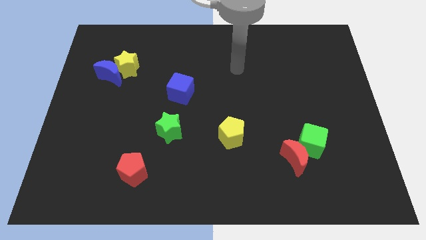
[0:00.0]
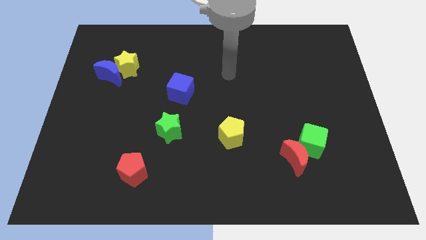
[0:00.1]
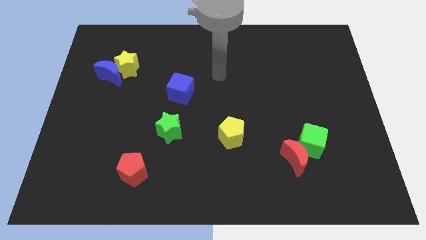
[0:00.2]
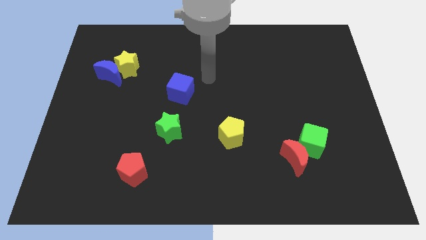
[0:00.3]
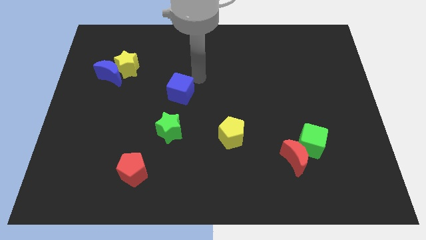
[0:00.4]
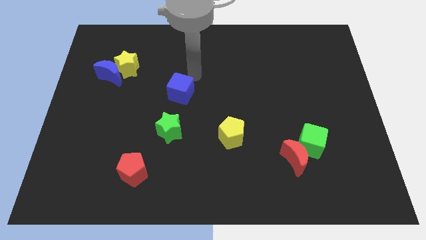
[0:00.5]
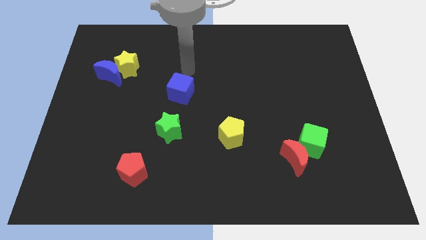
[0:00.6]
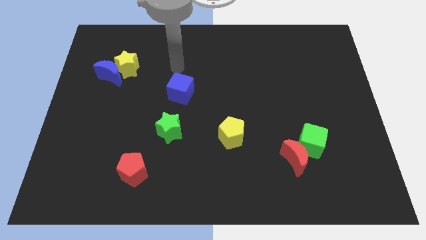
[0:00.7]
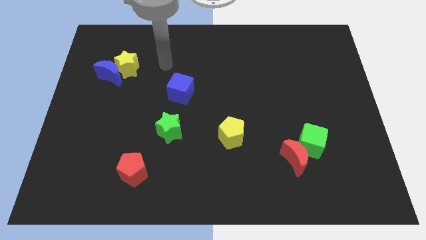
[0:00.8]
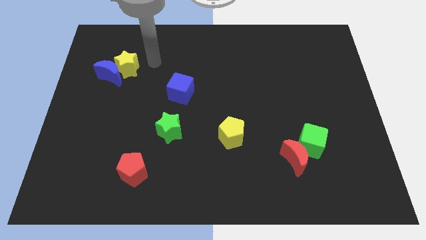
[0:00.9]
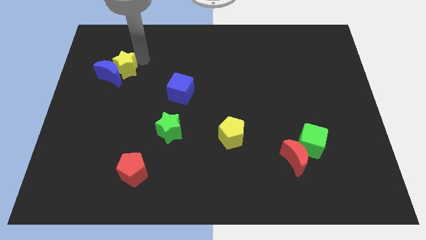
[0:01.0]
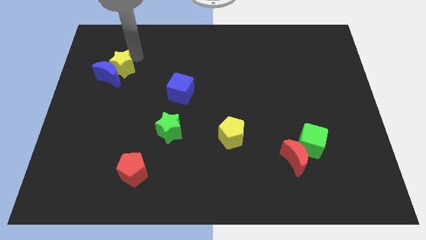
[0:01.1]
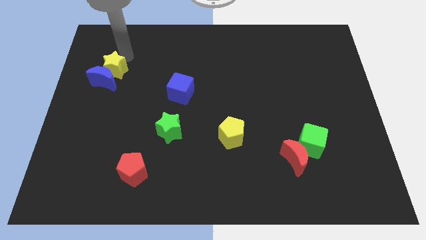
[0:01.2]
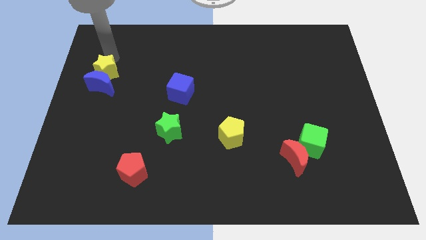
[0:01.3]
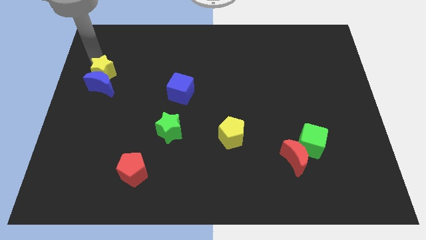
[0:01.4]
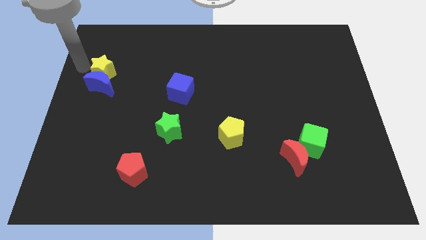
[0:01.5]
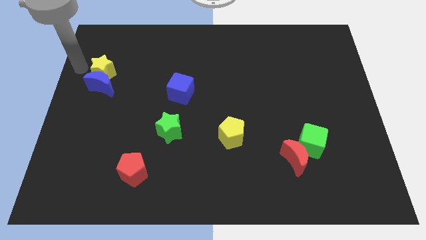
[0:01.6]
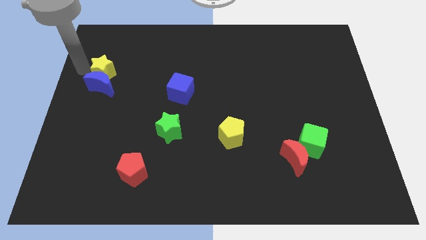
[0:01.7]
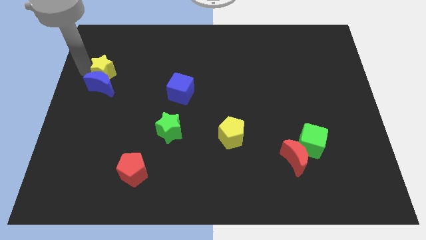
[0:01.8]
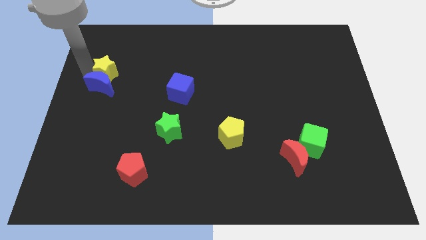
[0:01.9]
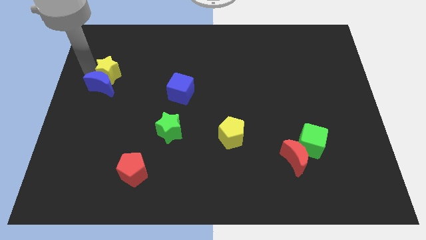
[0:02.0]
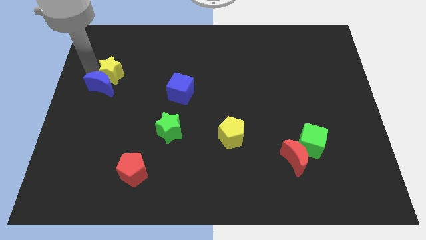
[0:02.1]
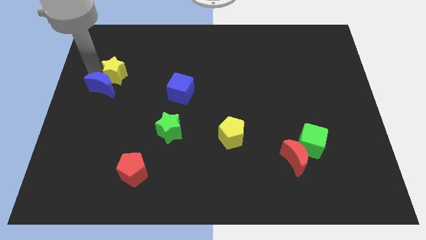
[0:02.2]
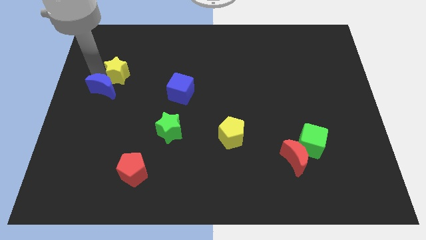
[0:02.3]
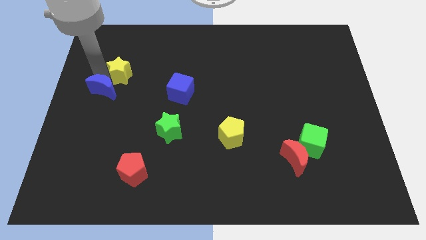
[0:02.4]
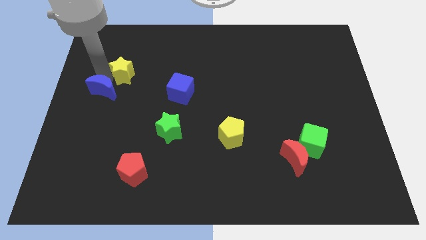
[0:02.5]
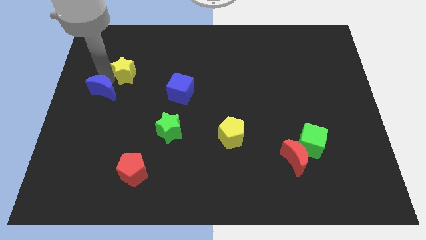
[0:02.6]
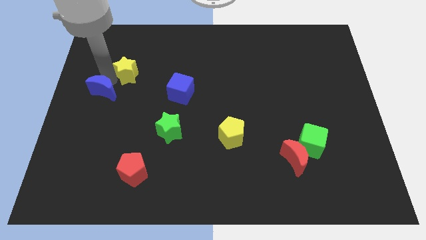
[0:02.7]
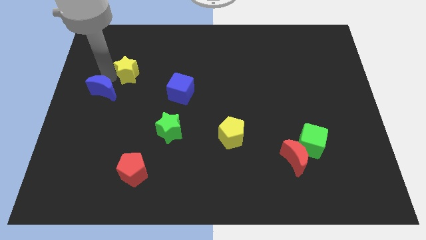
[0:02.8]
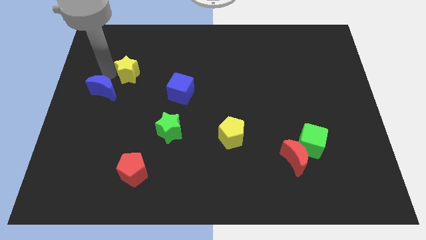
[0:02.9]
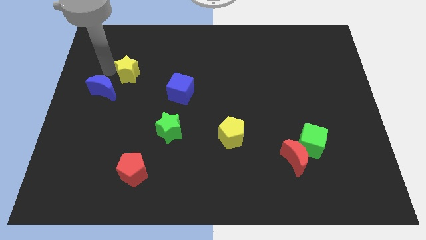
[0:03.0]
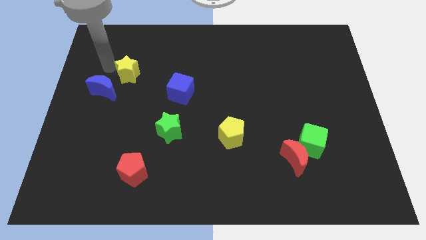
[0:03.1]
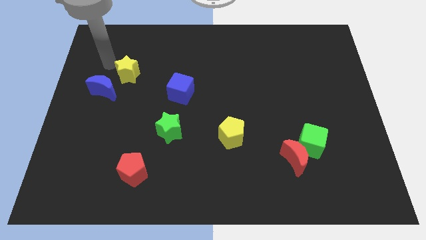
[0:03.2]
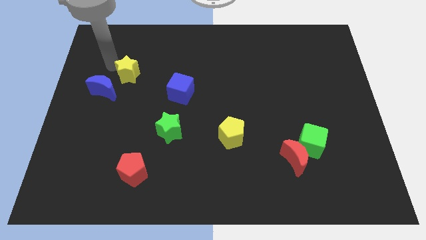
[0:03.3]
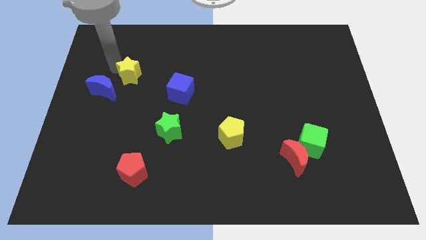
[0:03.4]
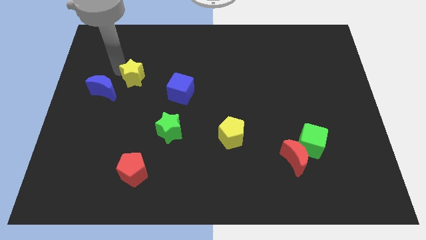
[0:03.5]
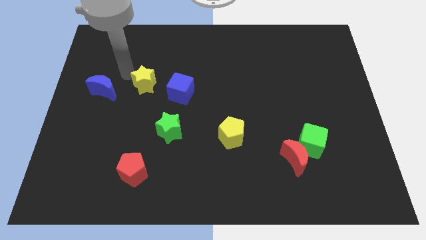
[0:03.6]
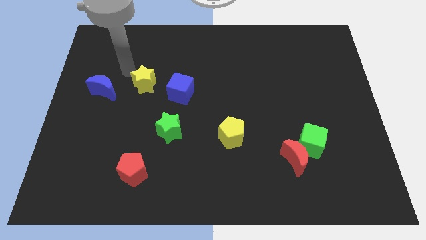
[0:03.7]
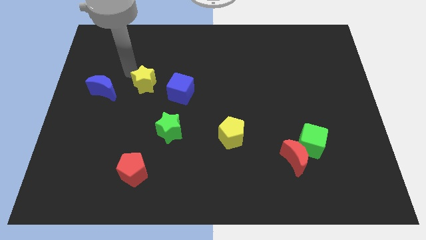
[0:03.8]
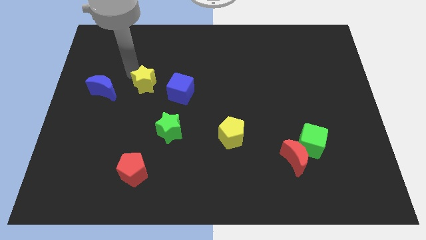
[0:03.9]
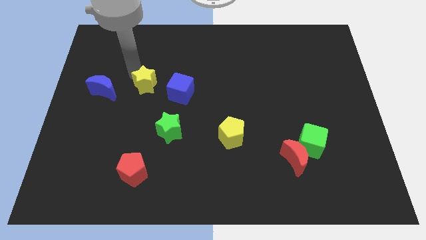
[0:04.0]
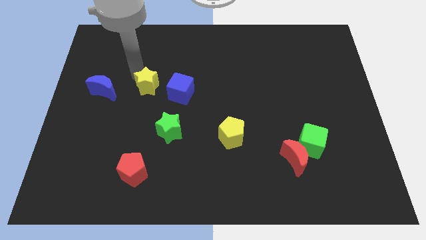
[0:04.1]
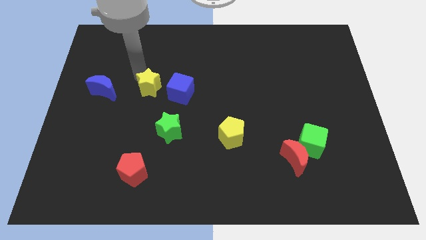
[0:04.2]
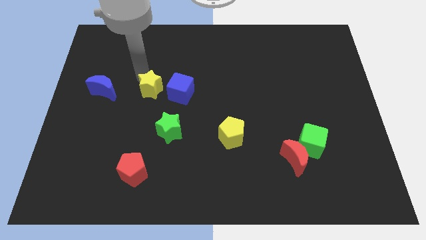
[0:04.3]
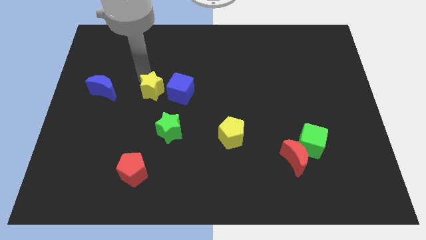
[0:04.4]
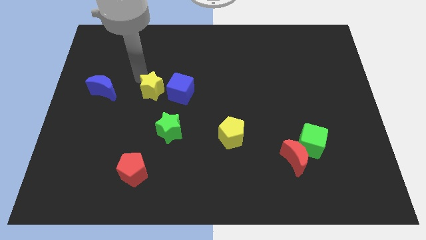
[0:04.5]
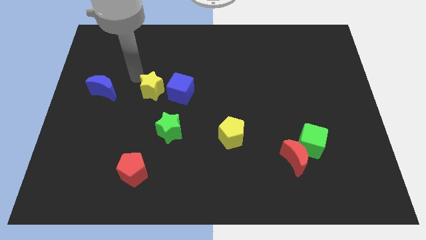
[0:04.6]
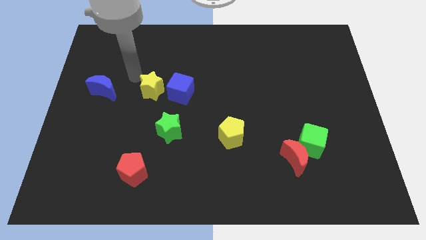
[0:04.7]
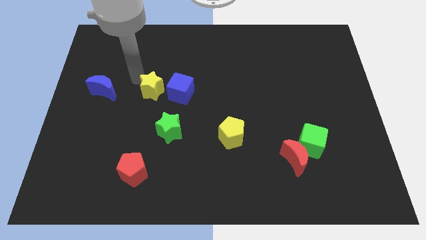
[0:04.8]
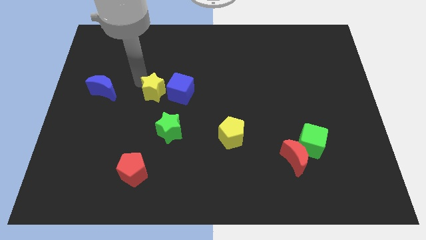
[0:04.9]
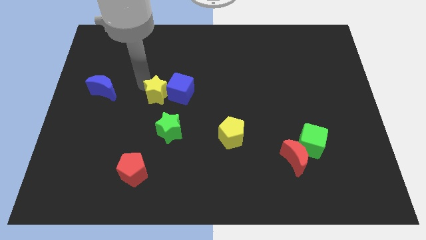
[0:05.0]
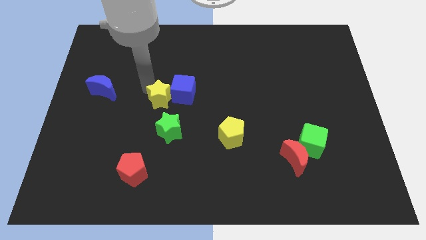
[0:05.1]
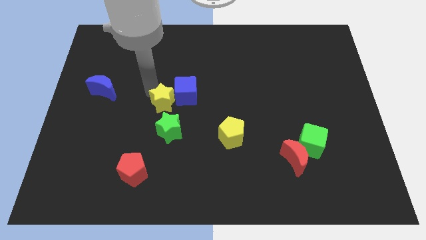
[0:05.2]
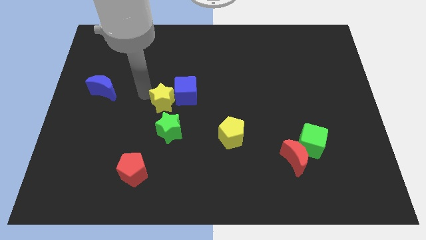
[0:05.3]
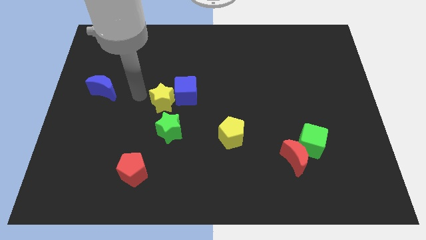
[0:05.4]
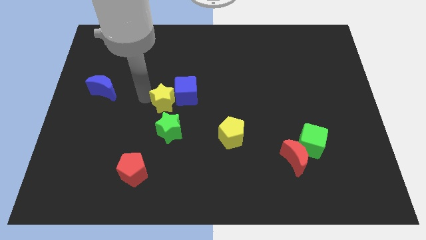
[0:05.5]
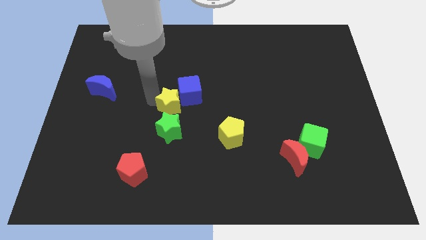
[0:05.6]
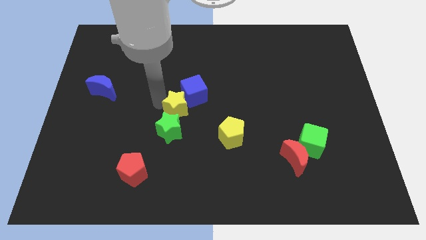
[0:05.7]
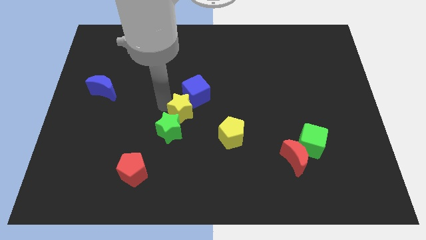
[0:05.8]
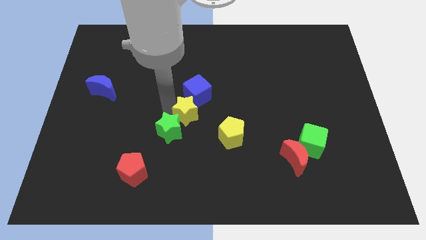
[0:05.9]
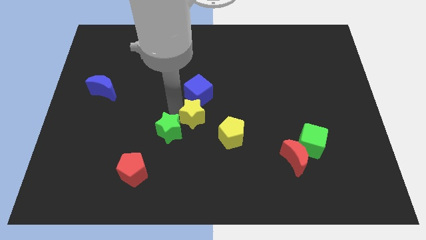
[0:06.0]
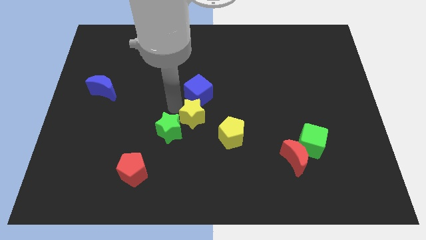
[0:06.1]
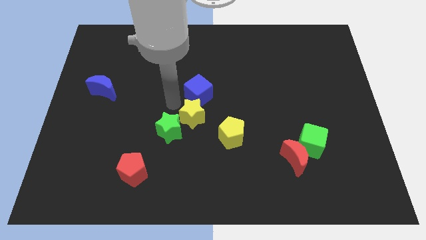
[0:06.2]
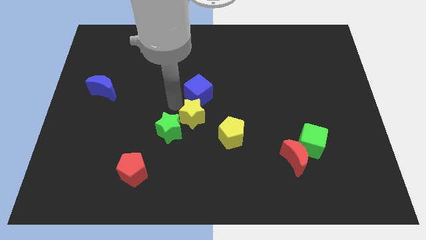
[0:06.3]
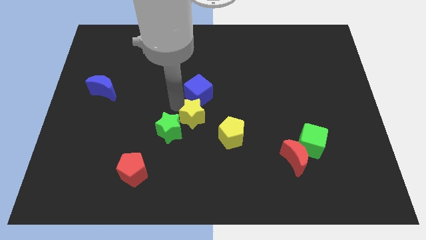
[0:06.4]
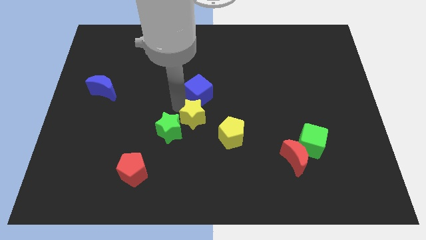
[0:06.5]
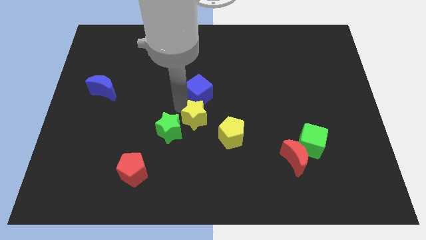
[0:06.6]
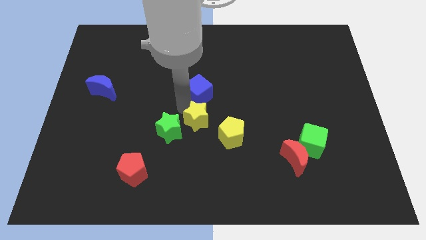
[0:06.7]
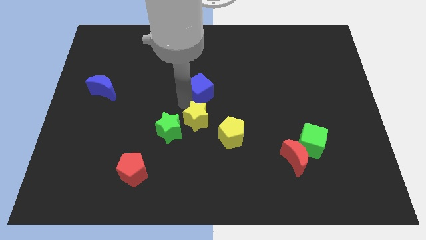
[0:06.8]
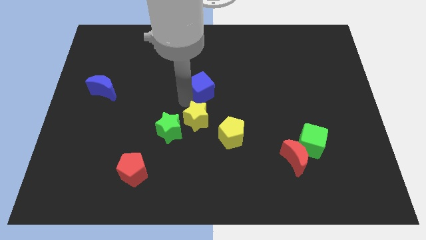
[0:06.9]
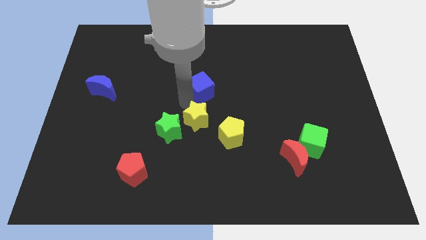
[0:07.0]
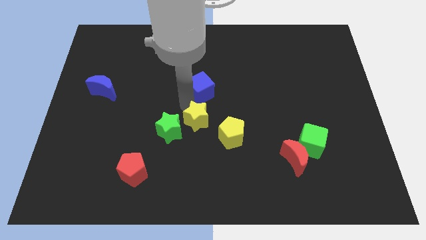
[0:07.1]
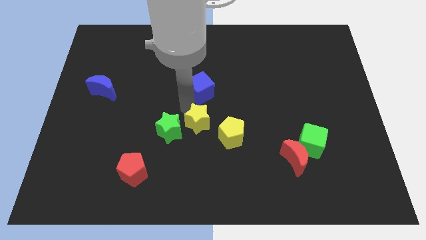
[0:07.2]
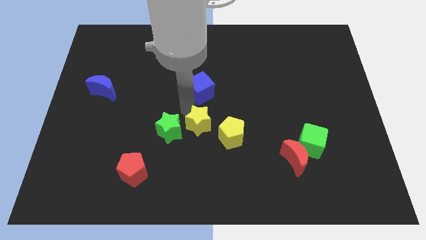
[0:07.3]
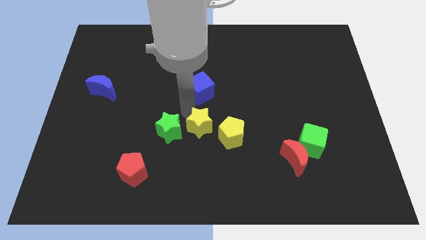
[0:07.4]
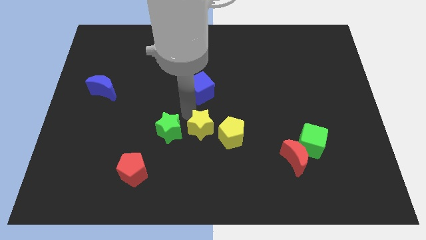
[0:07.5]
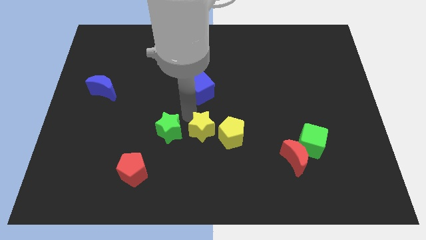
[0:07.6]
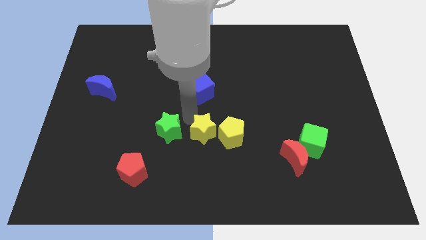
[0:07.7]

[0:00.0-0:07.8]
put the yellow star diagonally down and to the left of the yellow pentagon
